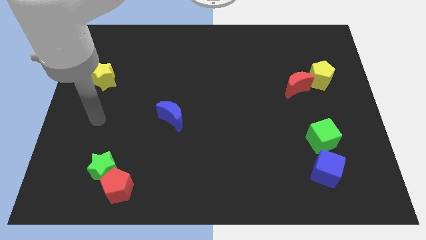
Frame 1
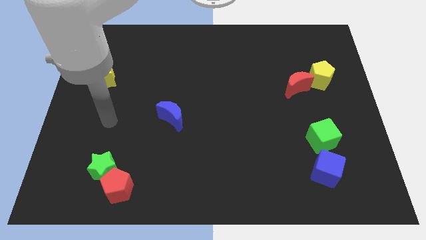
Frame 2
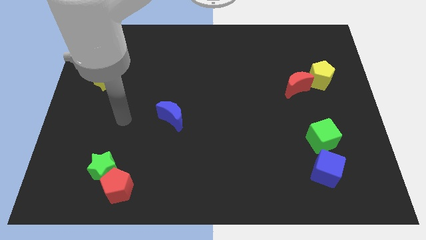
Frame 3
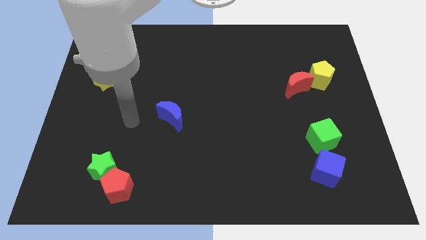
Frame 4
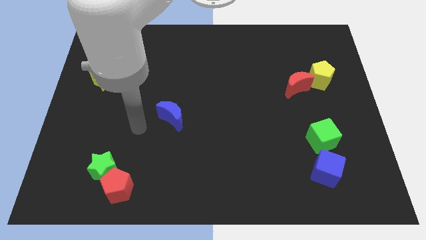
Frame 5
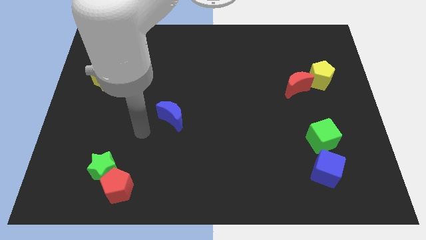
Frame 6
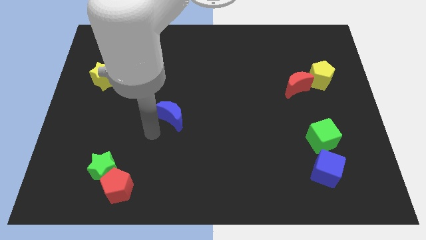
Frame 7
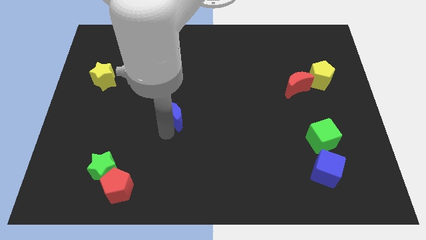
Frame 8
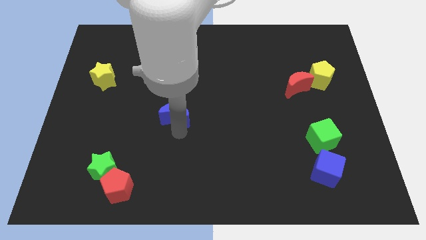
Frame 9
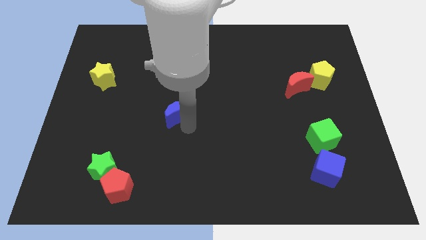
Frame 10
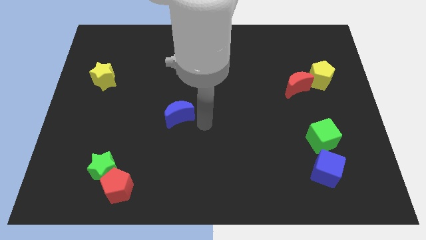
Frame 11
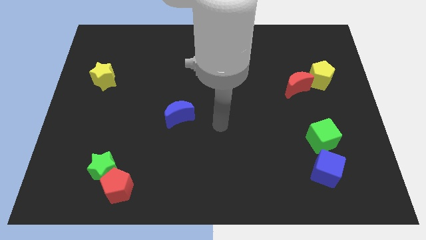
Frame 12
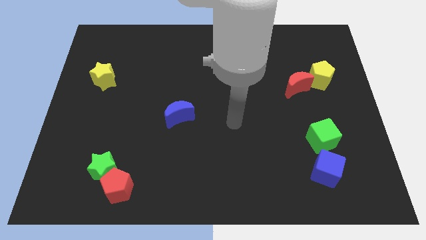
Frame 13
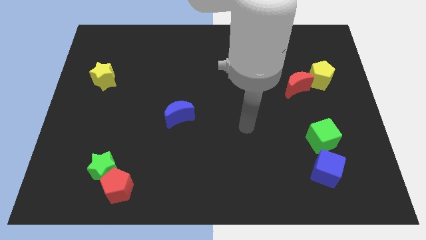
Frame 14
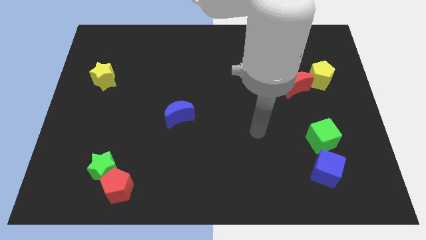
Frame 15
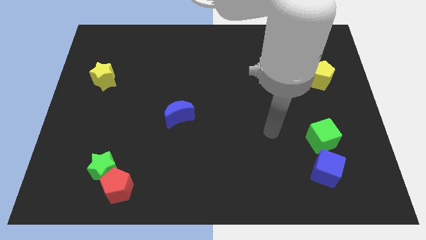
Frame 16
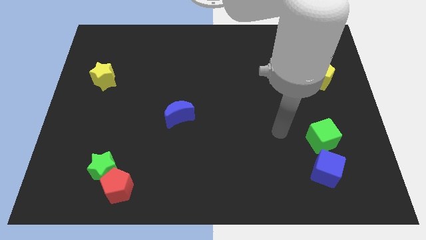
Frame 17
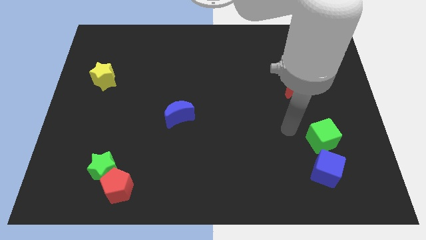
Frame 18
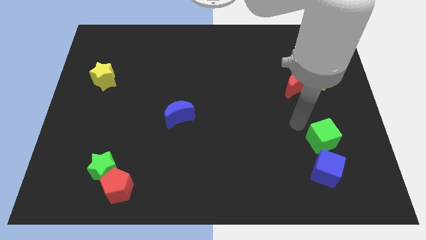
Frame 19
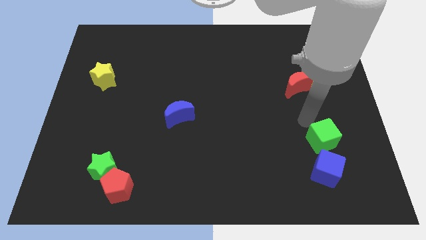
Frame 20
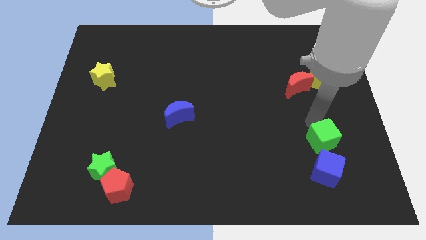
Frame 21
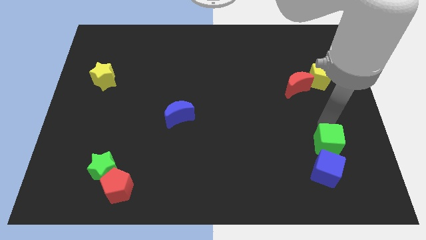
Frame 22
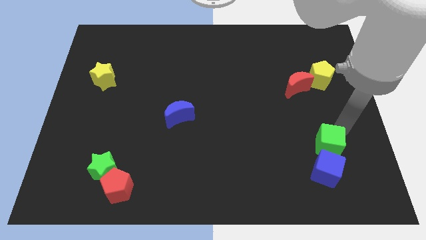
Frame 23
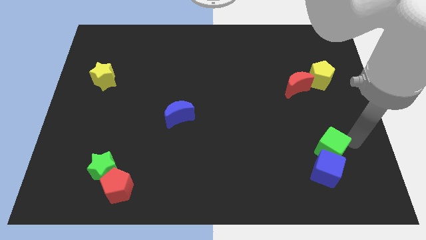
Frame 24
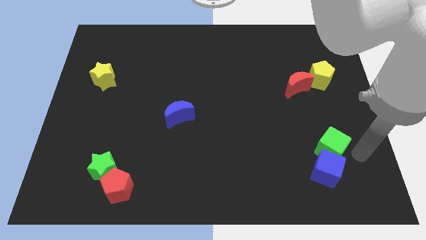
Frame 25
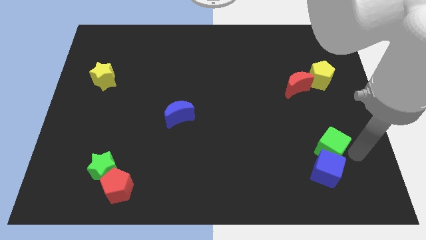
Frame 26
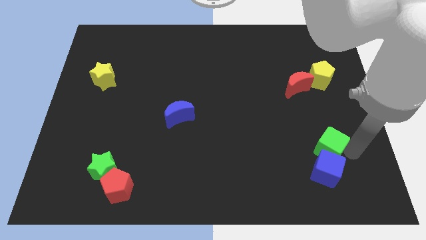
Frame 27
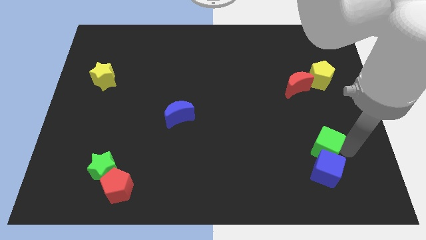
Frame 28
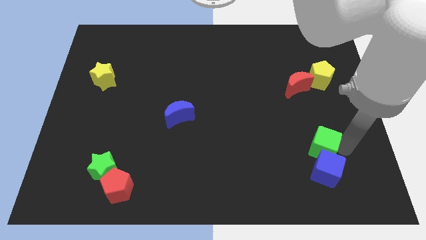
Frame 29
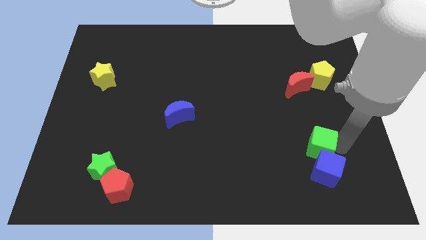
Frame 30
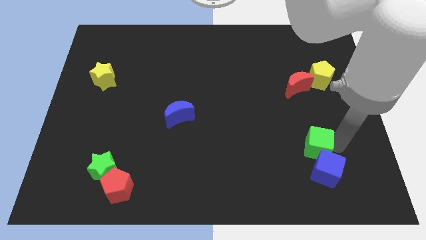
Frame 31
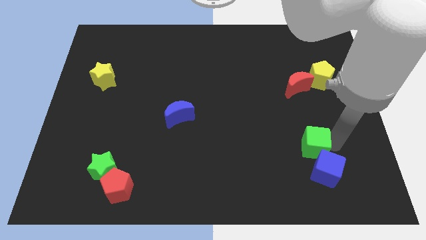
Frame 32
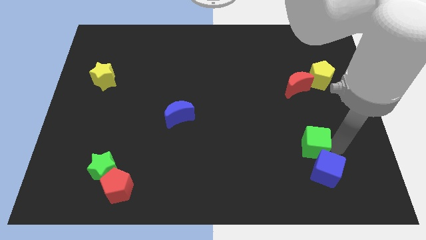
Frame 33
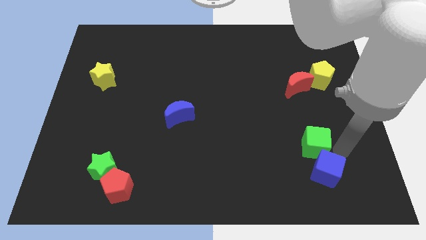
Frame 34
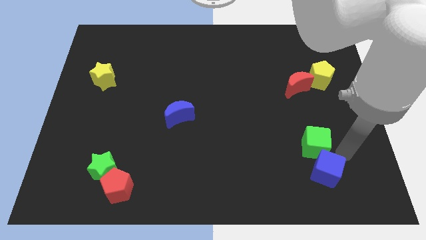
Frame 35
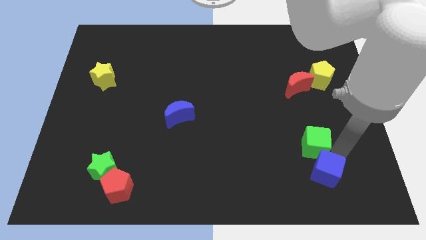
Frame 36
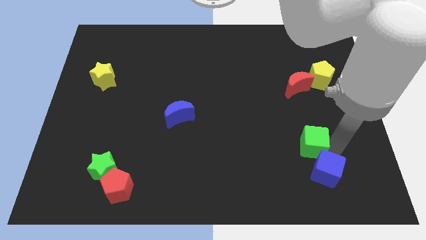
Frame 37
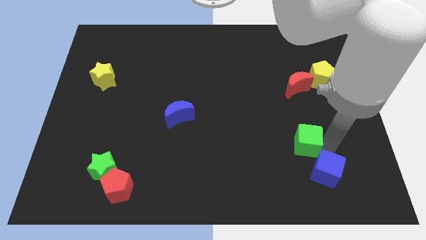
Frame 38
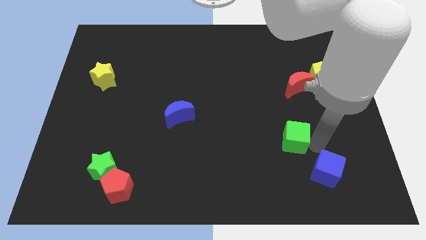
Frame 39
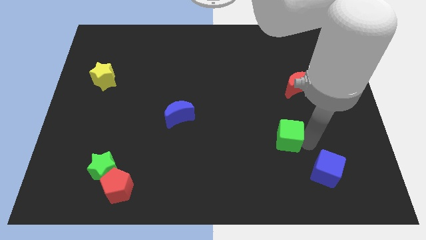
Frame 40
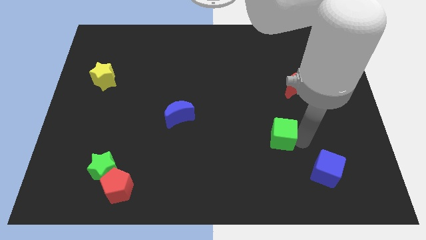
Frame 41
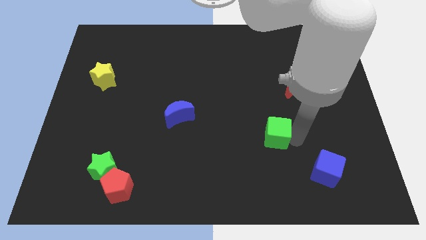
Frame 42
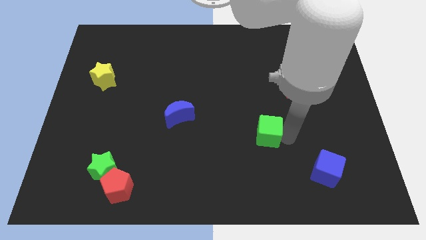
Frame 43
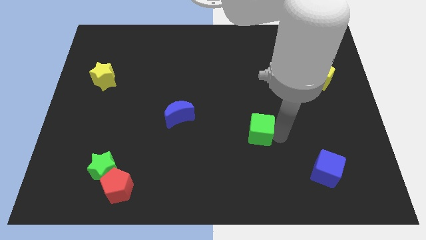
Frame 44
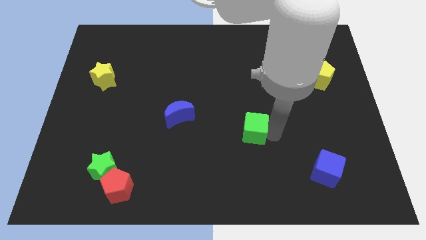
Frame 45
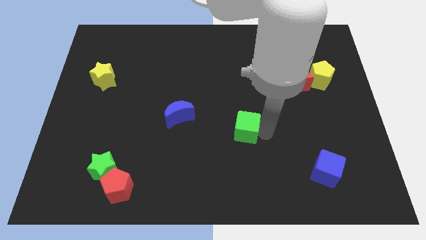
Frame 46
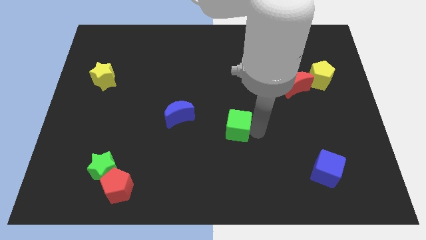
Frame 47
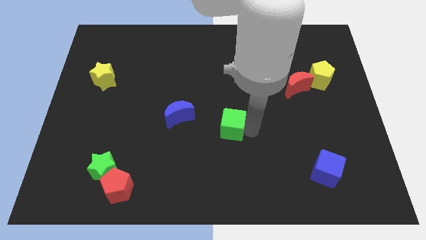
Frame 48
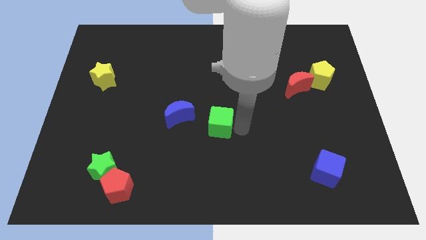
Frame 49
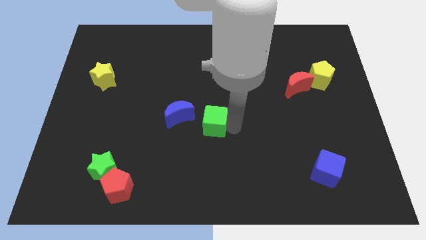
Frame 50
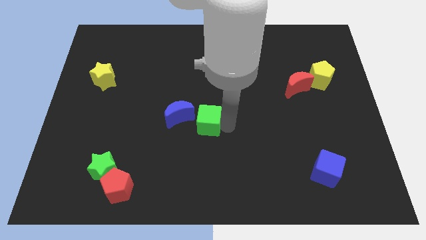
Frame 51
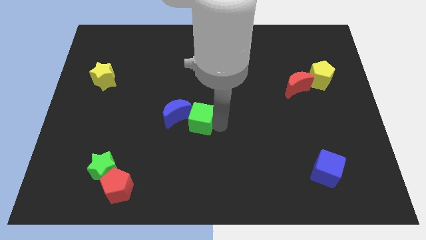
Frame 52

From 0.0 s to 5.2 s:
slide the green cube to the blue moon

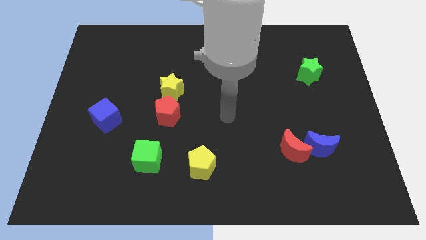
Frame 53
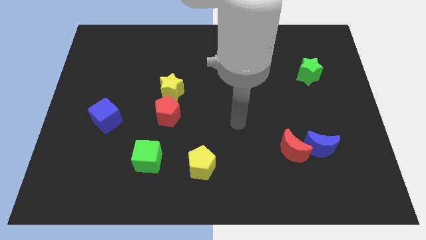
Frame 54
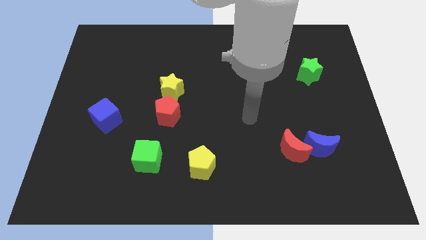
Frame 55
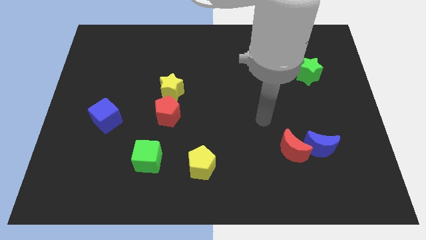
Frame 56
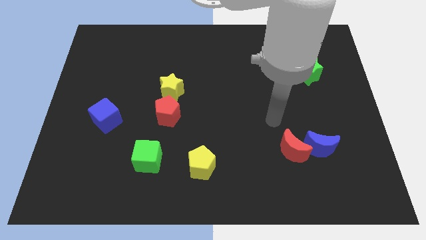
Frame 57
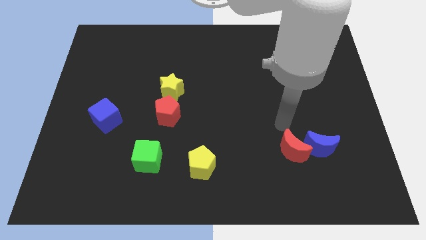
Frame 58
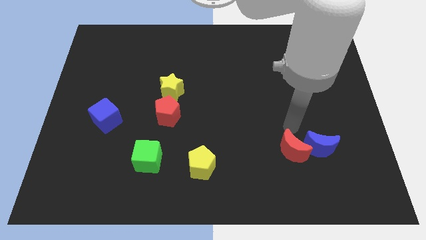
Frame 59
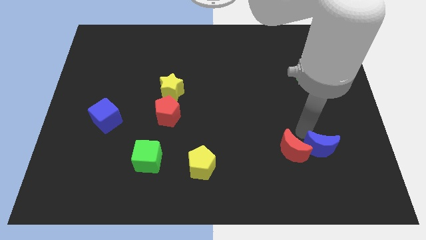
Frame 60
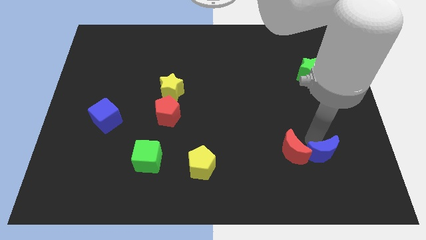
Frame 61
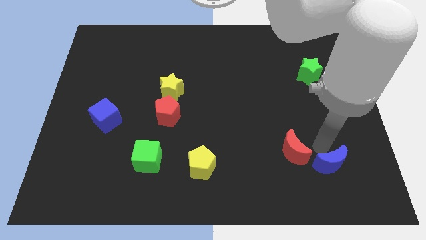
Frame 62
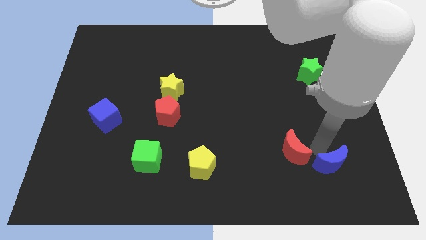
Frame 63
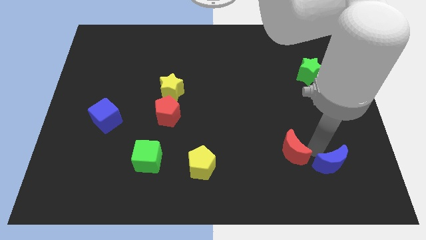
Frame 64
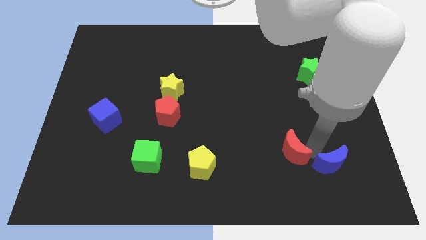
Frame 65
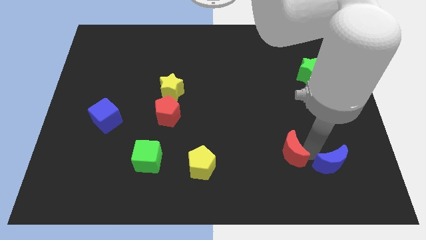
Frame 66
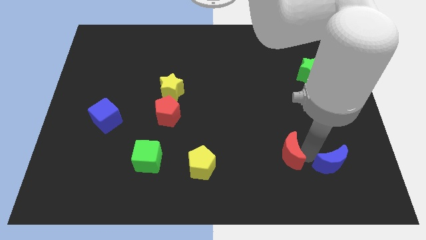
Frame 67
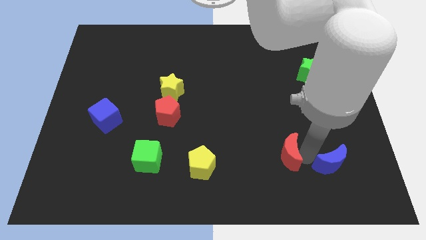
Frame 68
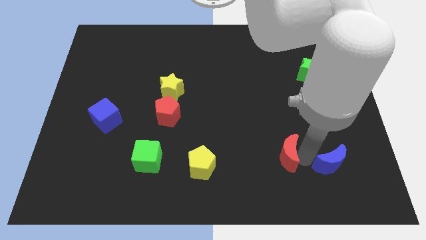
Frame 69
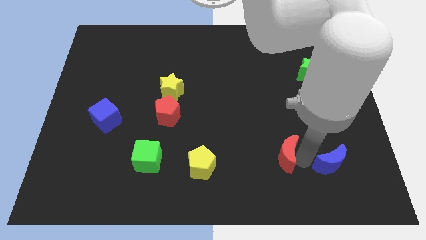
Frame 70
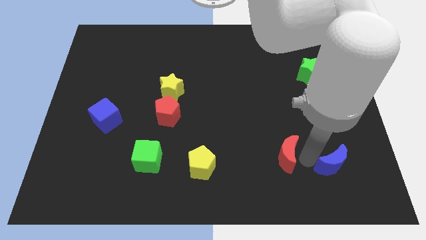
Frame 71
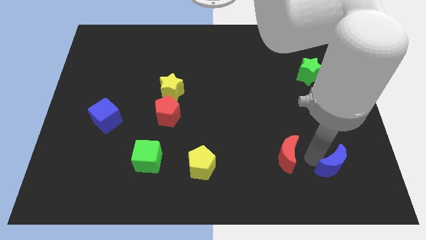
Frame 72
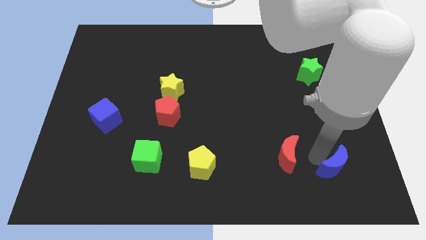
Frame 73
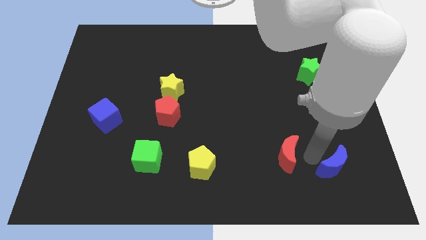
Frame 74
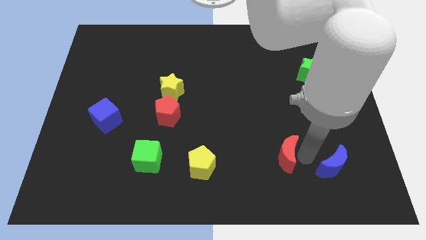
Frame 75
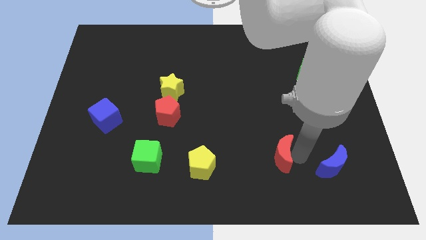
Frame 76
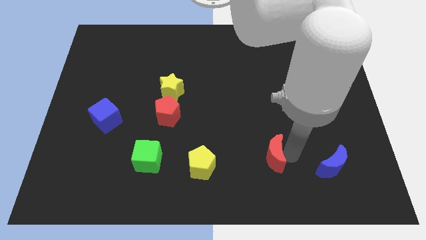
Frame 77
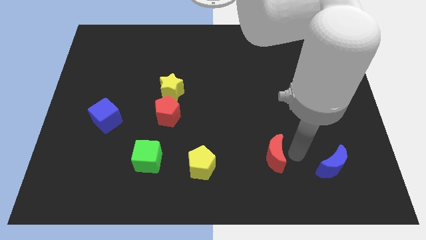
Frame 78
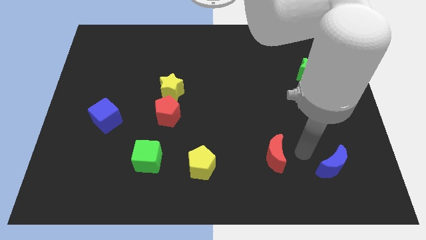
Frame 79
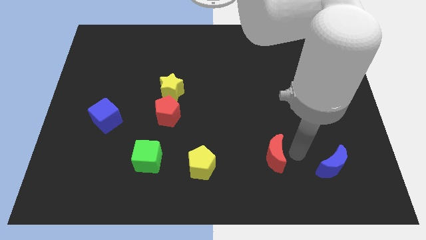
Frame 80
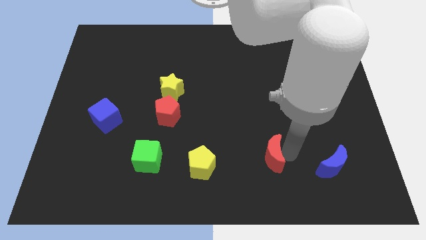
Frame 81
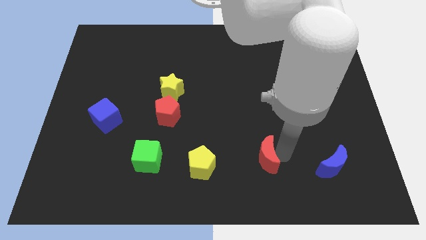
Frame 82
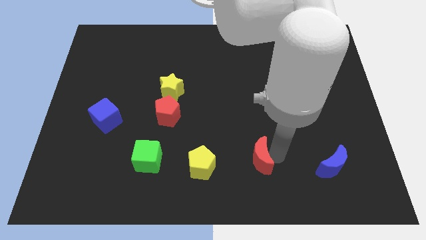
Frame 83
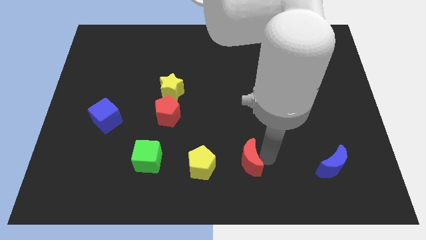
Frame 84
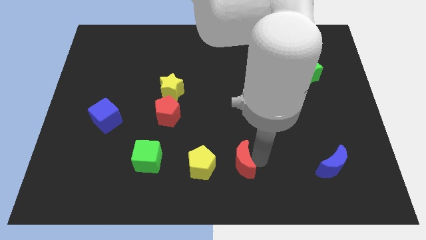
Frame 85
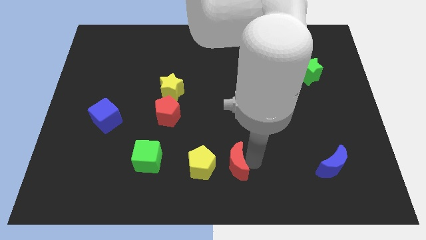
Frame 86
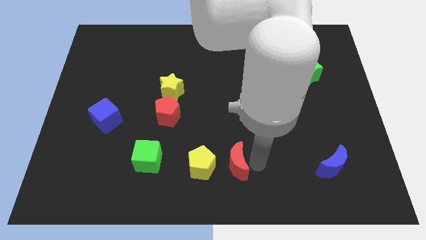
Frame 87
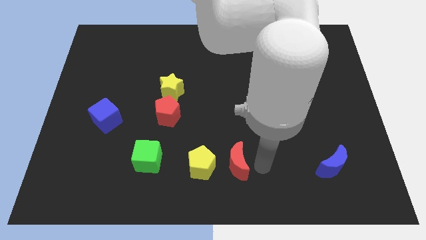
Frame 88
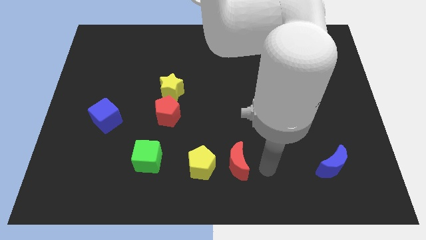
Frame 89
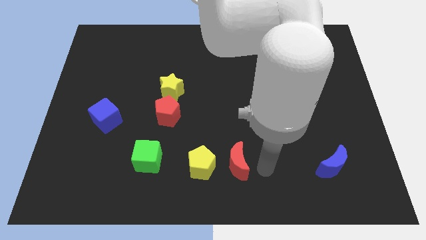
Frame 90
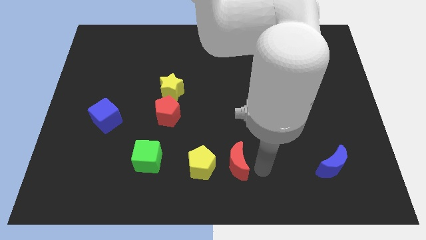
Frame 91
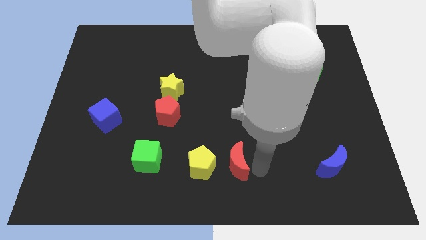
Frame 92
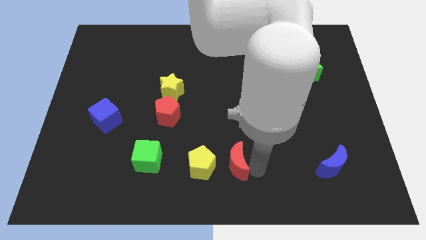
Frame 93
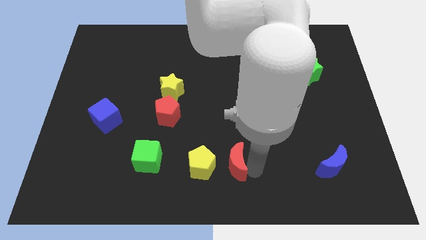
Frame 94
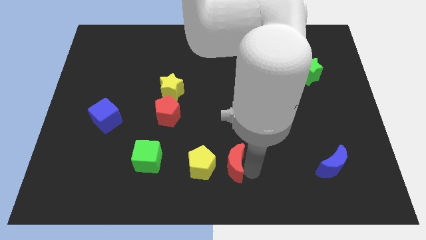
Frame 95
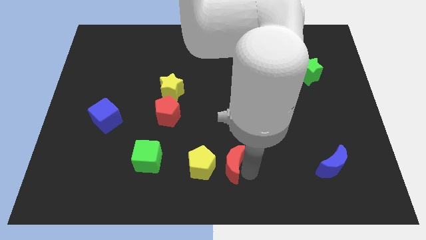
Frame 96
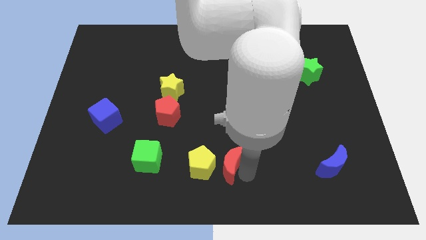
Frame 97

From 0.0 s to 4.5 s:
put the red moon towards the yellow pentagon
